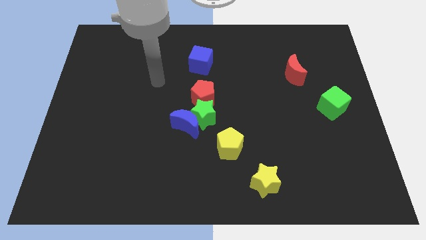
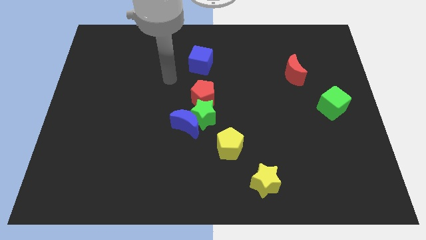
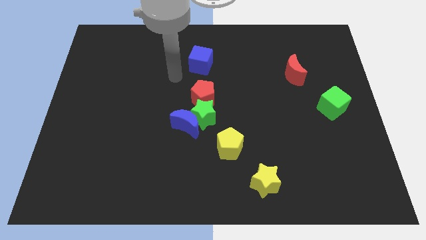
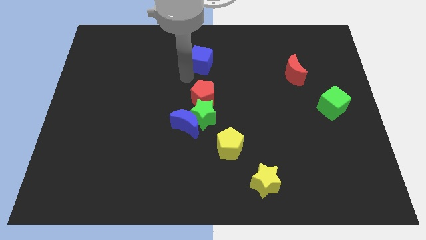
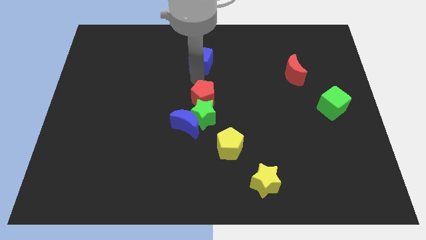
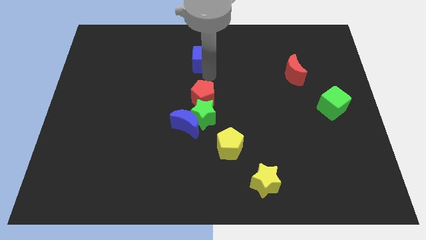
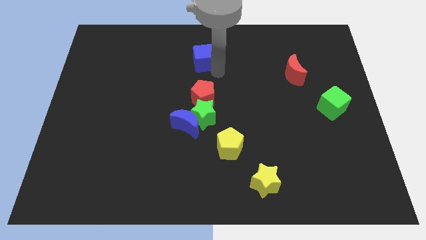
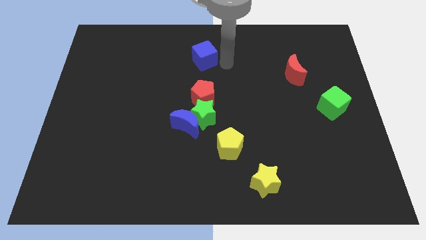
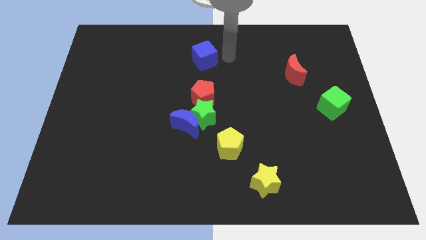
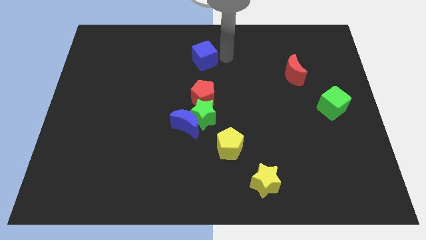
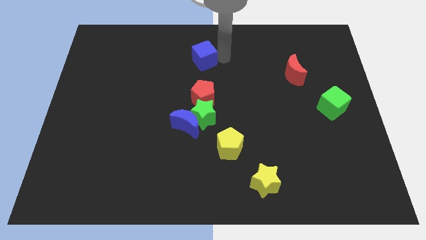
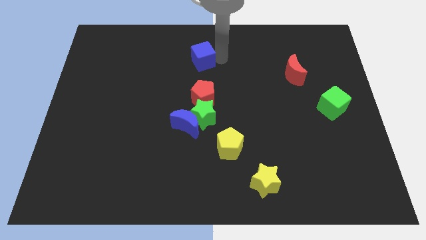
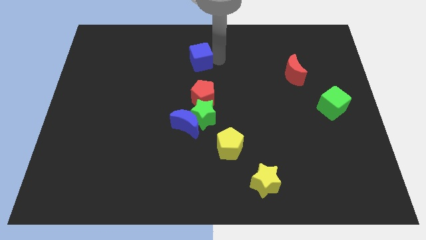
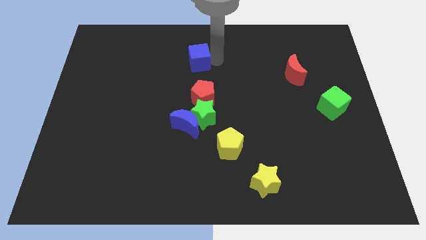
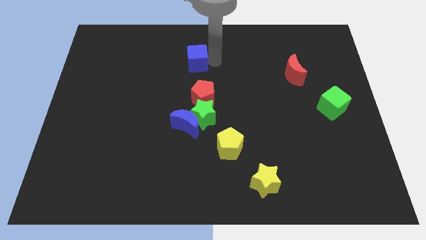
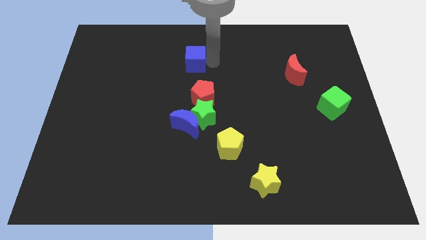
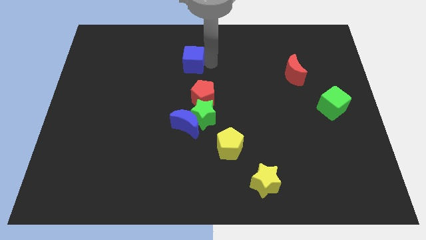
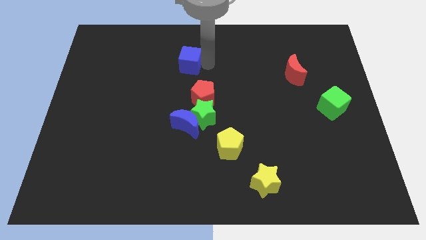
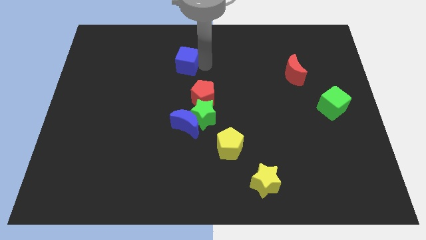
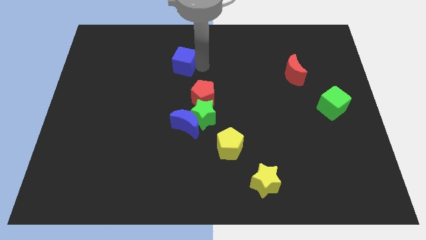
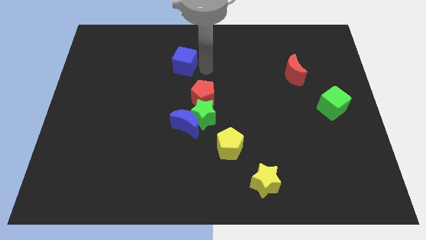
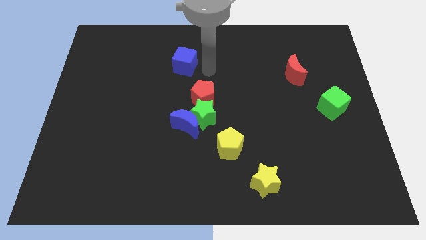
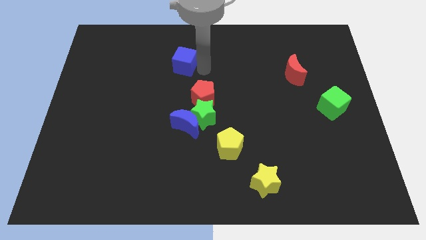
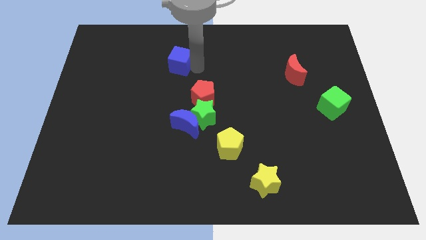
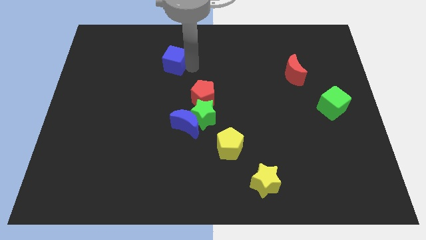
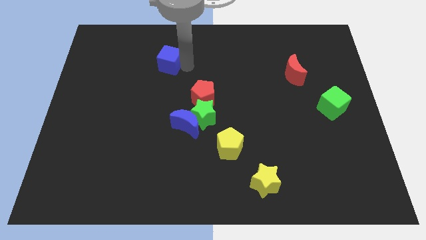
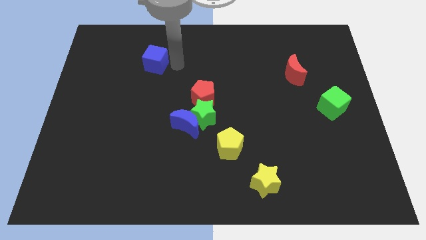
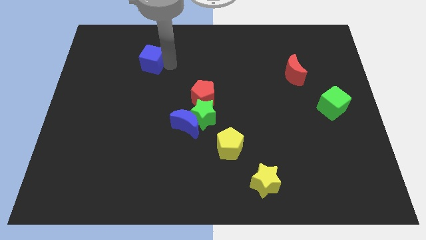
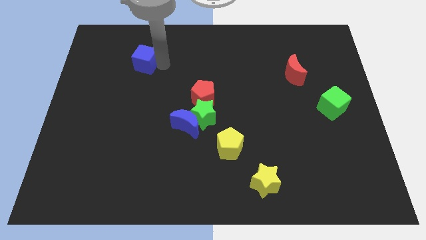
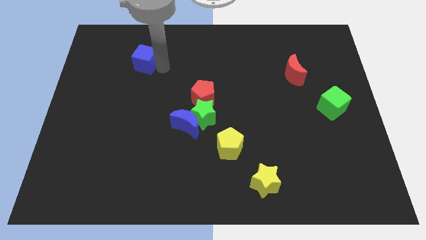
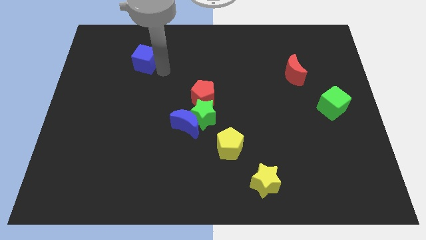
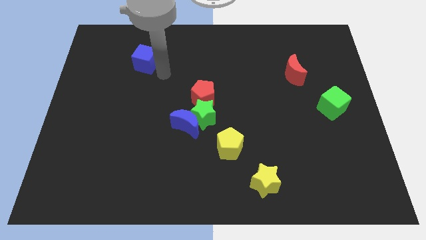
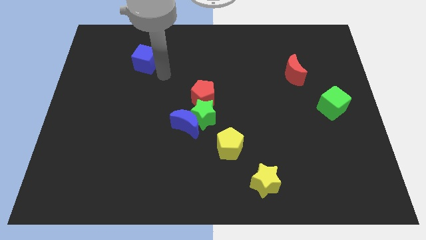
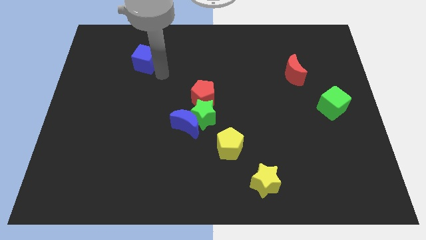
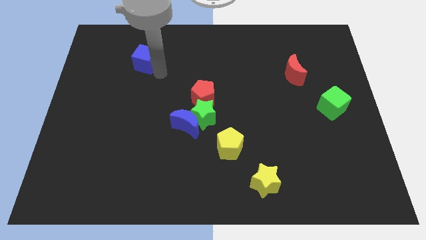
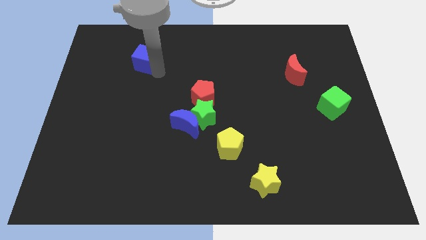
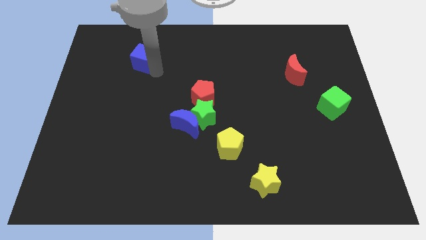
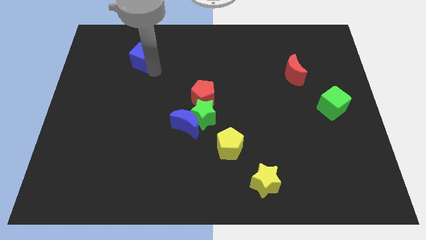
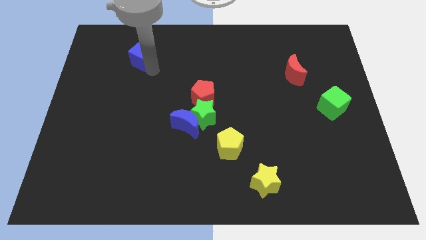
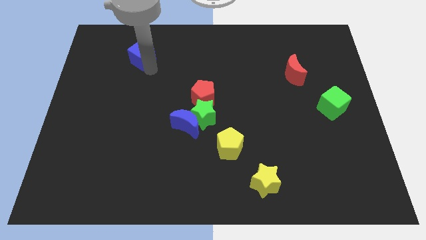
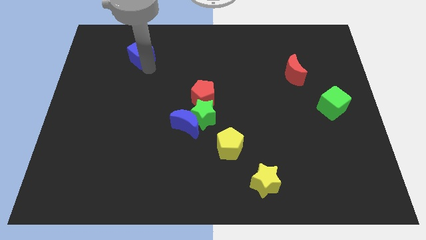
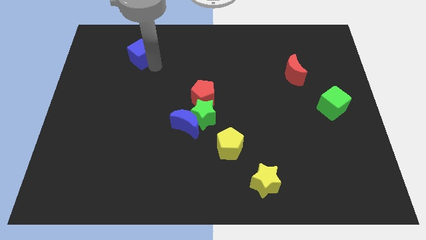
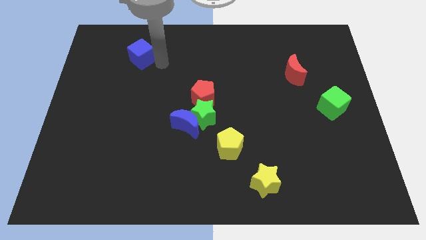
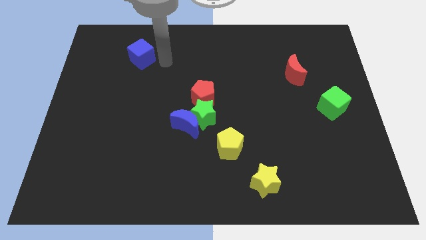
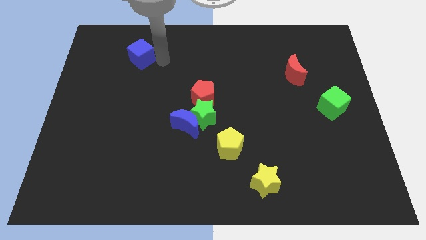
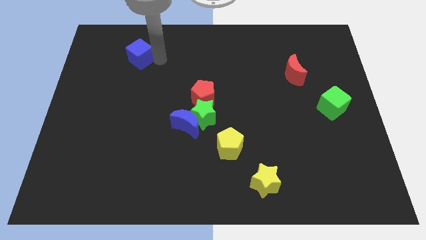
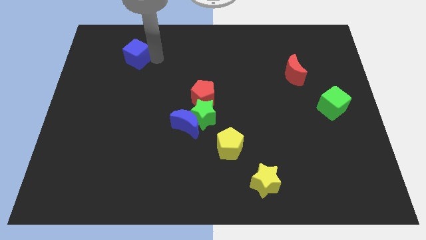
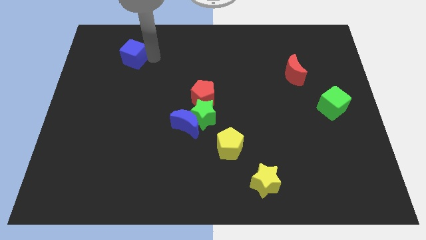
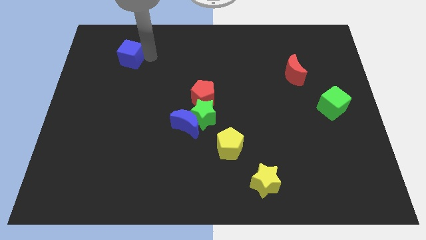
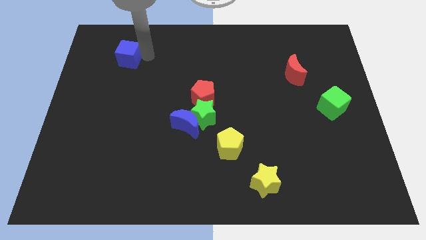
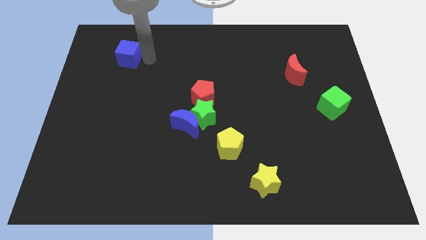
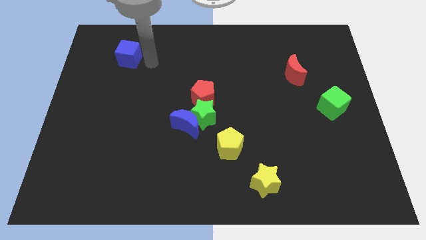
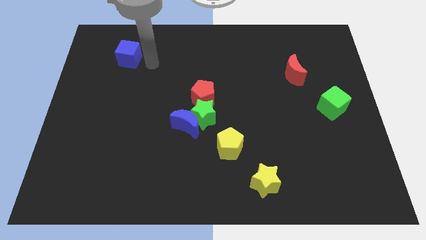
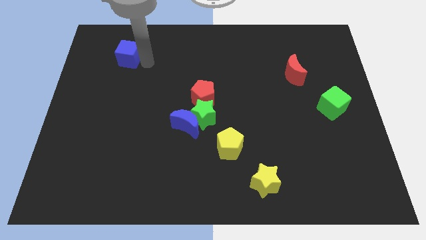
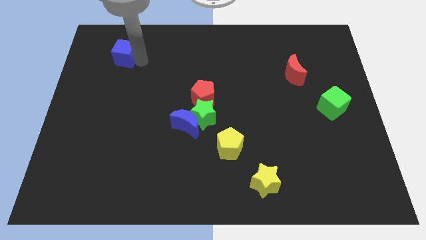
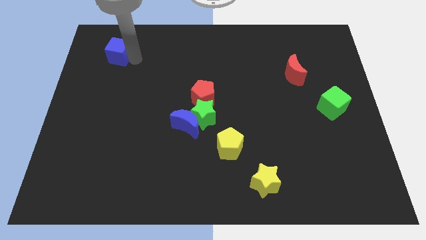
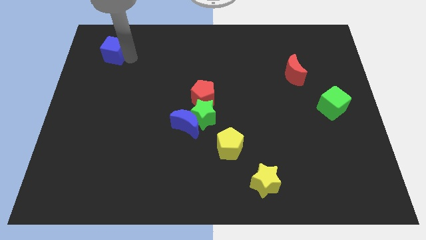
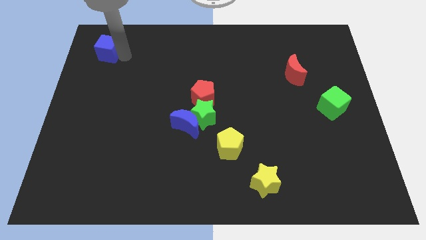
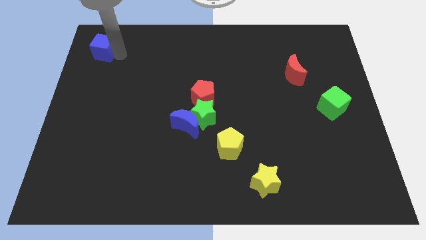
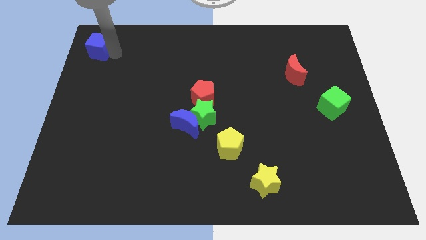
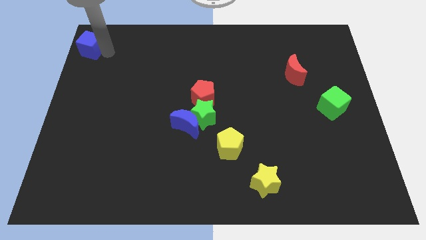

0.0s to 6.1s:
slide the blue cube to the top left

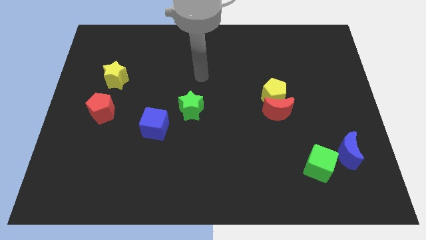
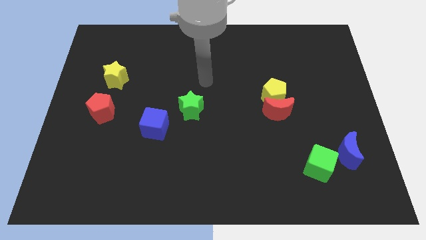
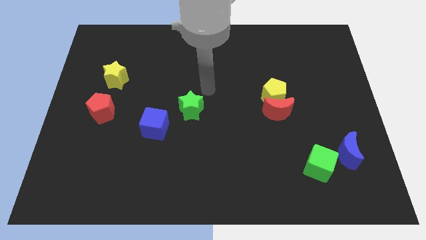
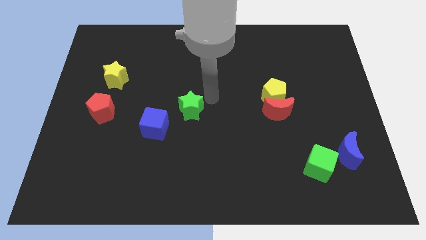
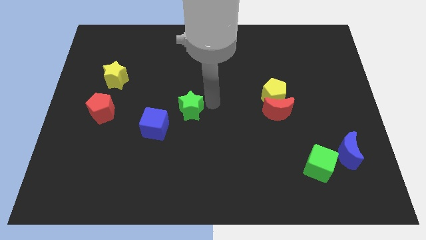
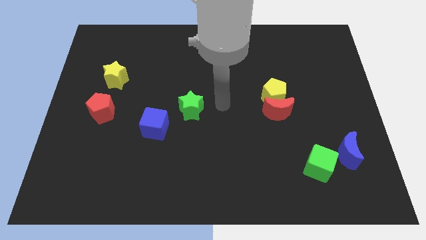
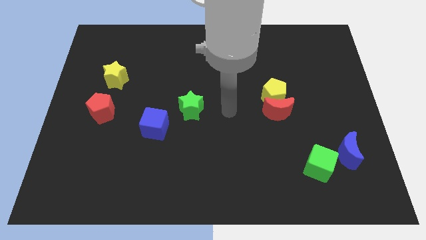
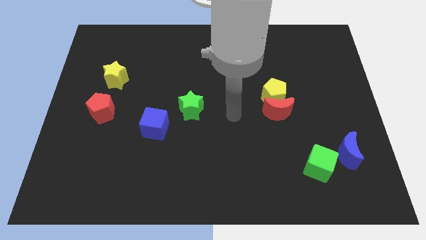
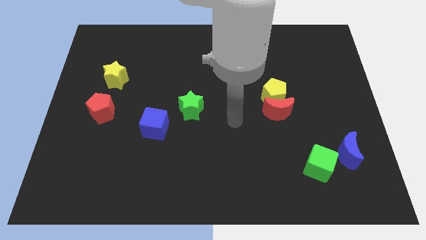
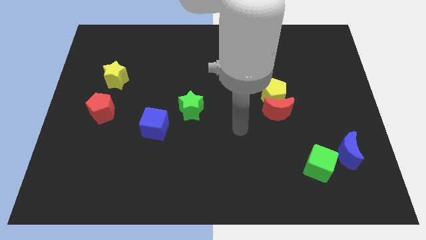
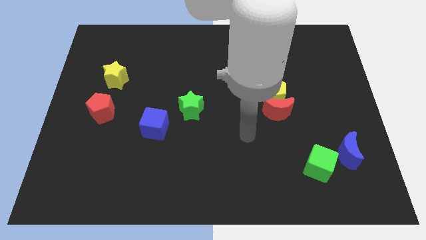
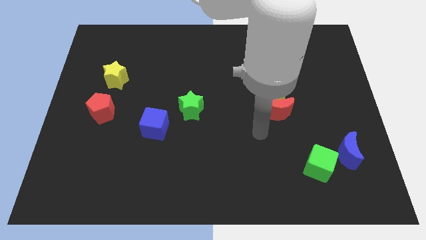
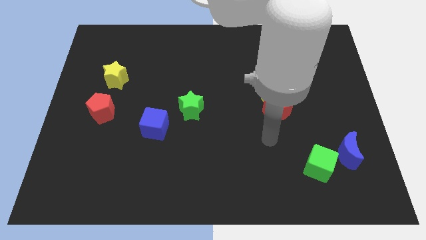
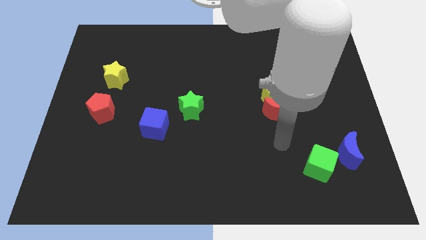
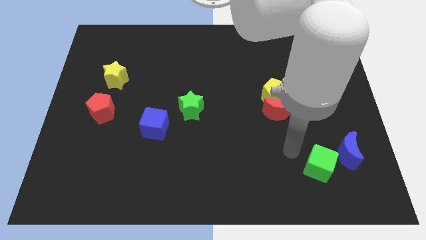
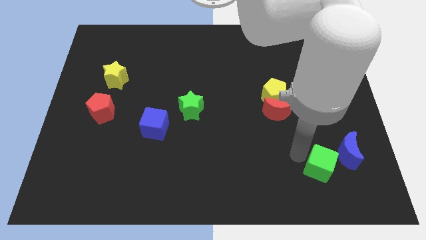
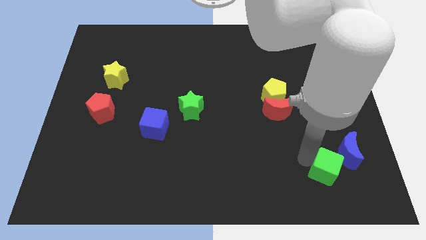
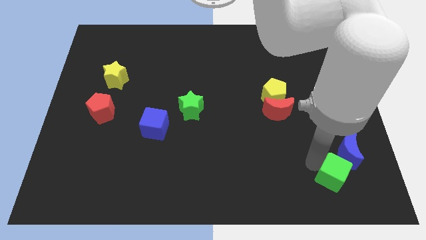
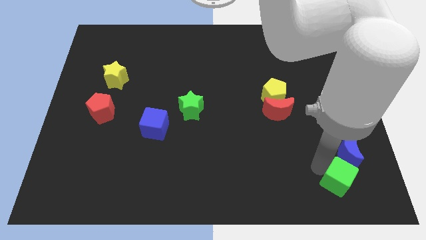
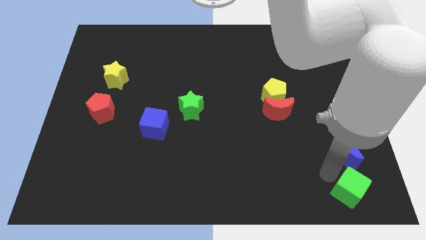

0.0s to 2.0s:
put the green cube to the lower right corner
